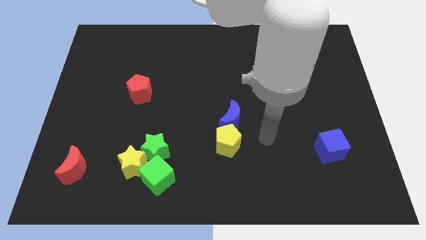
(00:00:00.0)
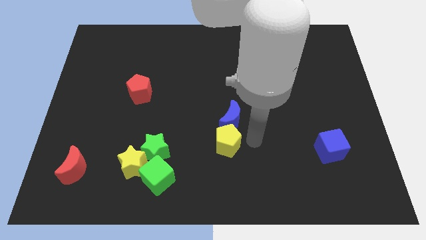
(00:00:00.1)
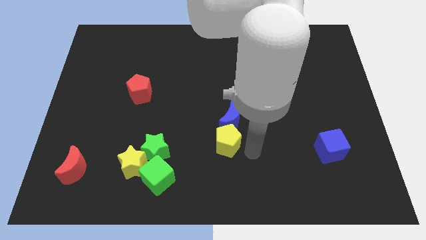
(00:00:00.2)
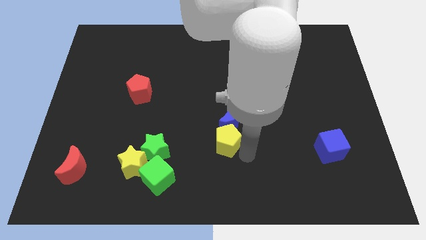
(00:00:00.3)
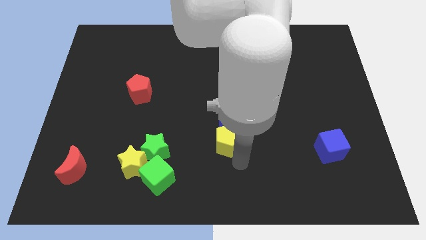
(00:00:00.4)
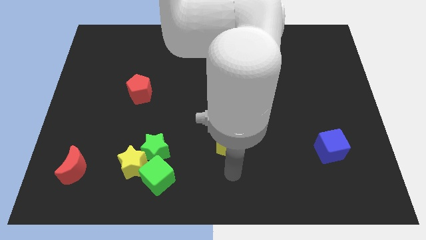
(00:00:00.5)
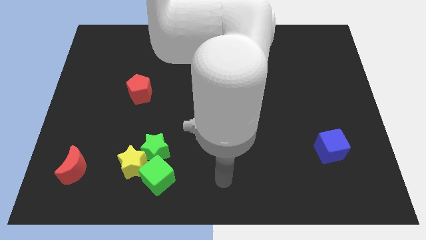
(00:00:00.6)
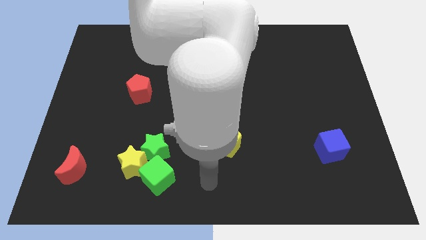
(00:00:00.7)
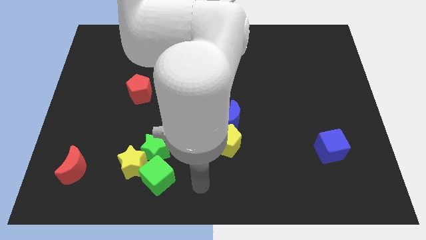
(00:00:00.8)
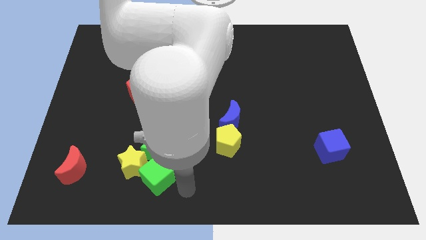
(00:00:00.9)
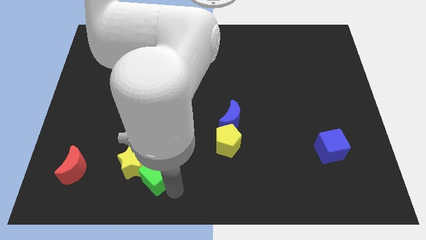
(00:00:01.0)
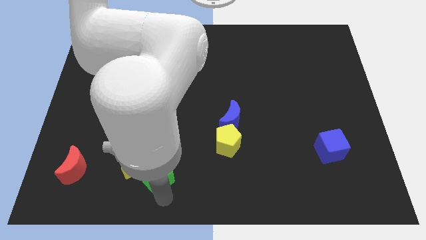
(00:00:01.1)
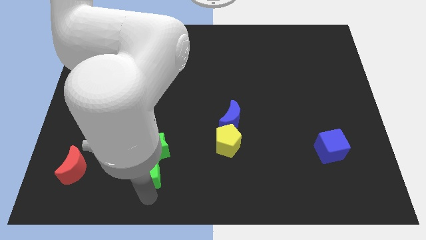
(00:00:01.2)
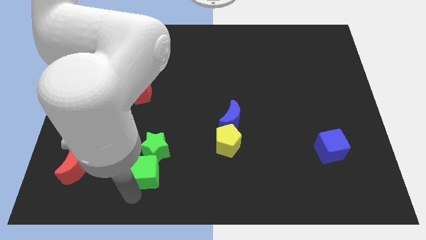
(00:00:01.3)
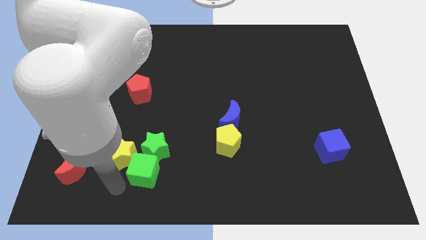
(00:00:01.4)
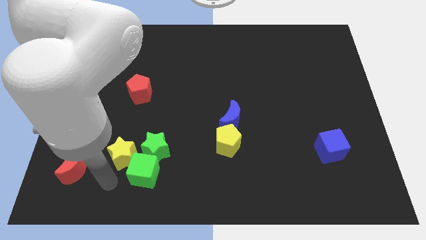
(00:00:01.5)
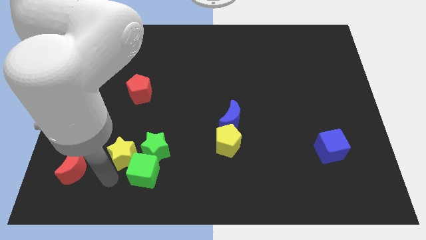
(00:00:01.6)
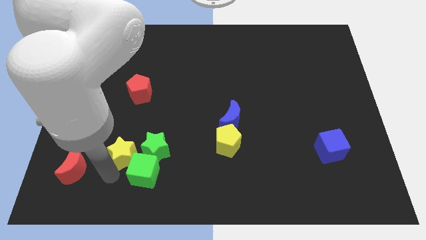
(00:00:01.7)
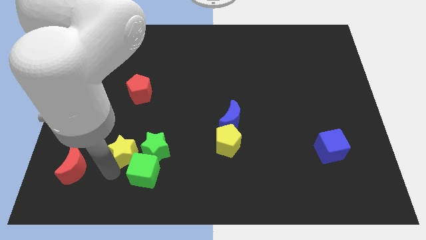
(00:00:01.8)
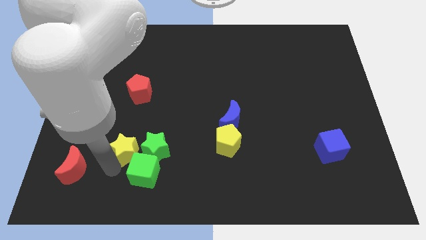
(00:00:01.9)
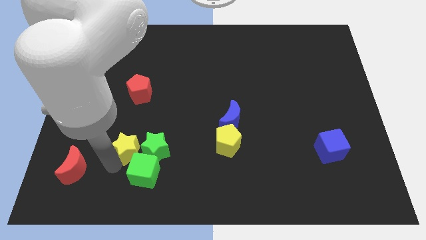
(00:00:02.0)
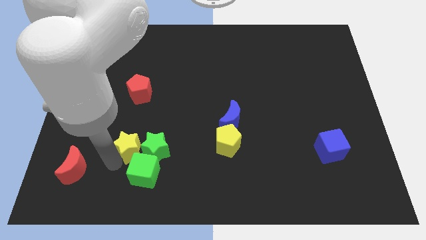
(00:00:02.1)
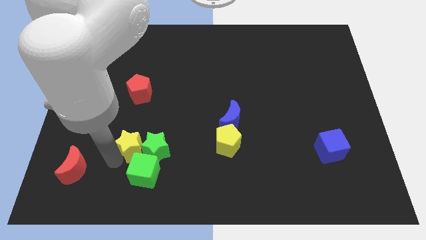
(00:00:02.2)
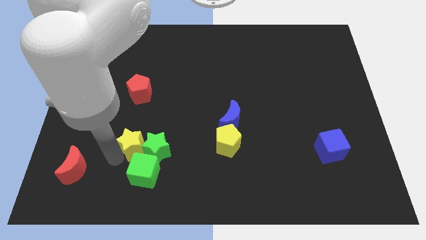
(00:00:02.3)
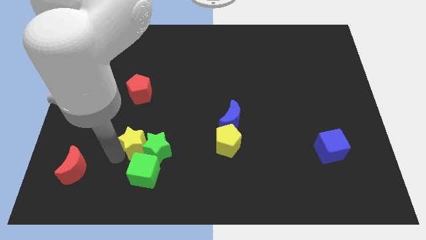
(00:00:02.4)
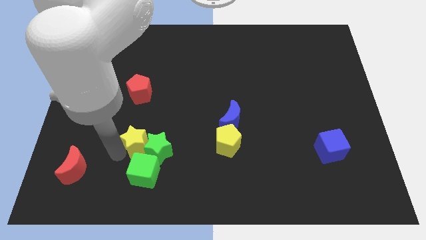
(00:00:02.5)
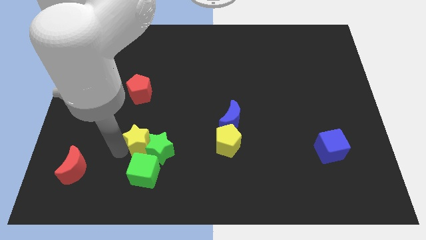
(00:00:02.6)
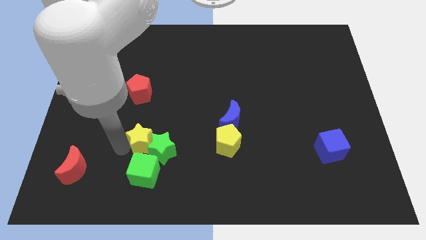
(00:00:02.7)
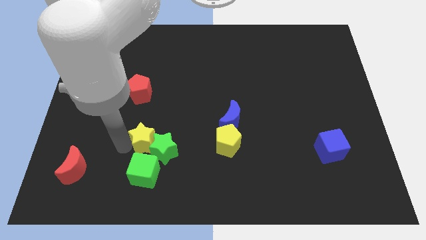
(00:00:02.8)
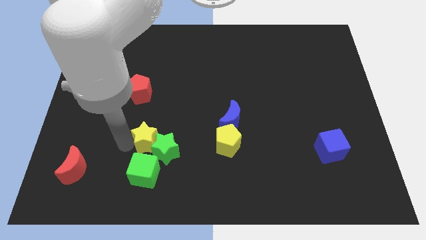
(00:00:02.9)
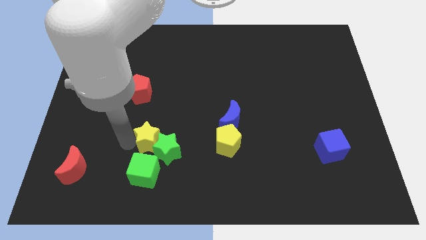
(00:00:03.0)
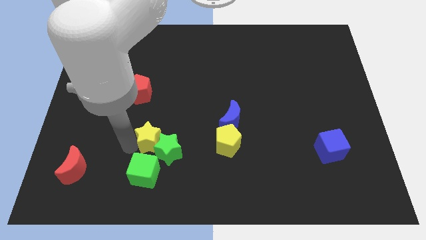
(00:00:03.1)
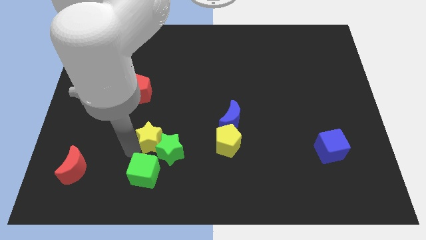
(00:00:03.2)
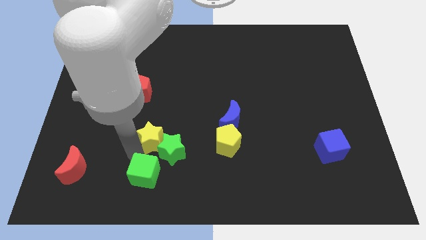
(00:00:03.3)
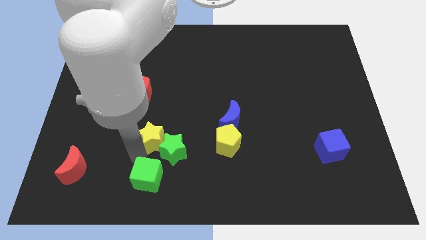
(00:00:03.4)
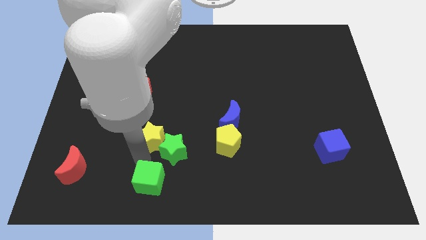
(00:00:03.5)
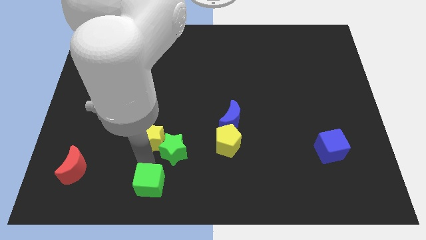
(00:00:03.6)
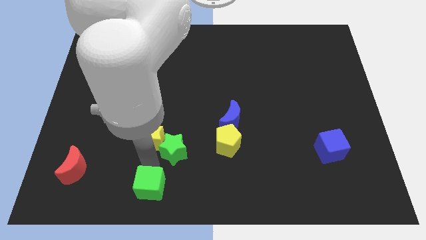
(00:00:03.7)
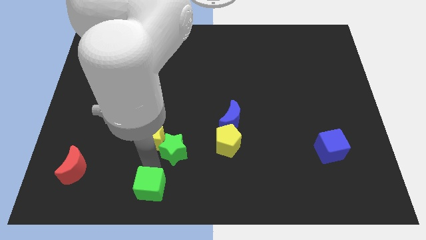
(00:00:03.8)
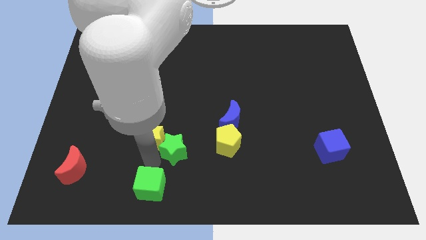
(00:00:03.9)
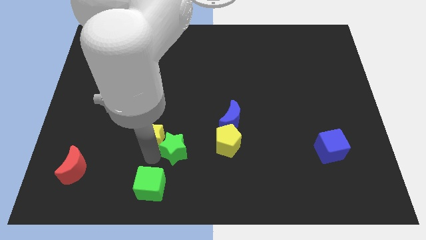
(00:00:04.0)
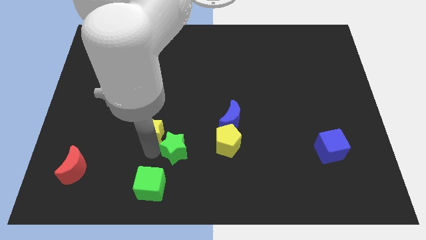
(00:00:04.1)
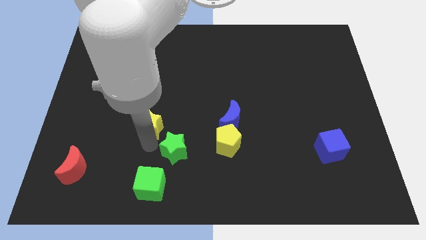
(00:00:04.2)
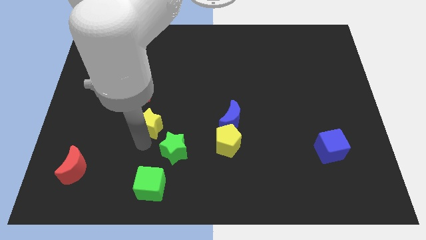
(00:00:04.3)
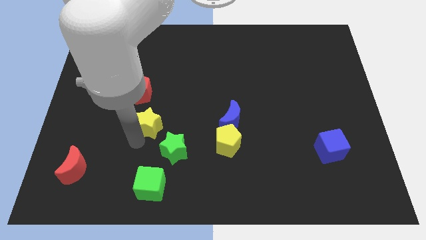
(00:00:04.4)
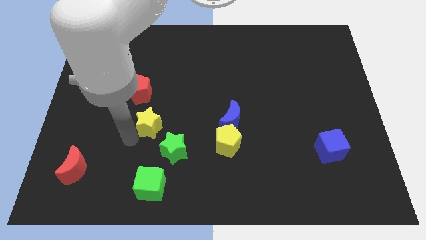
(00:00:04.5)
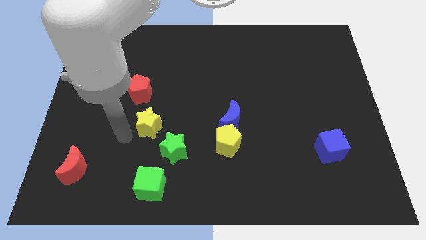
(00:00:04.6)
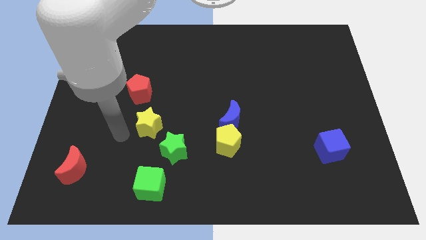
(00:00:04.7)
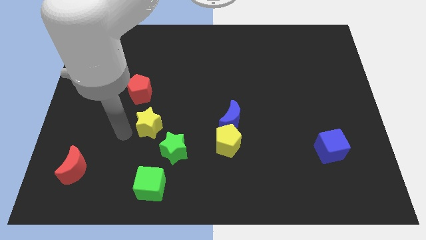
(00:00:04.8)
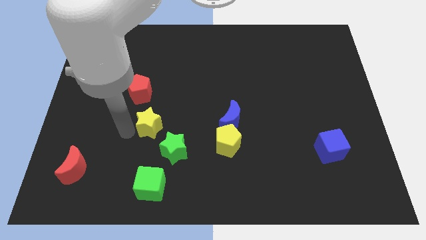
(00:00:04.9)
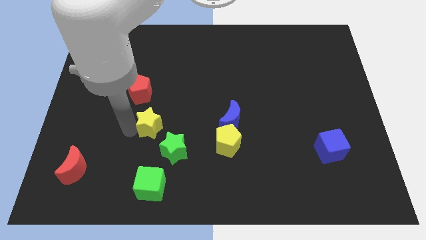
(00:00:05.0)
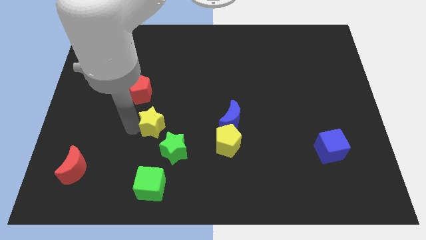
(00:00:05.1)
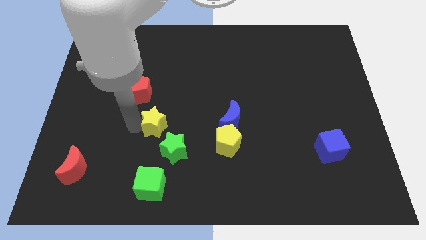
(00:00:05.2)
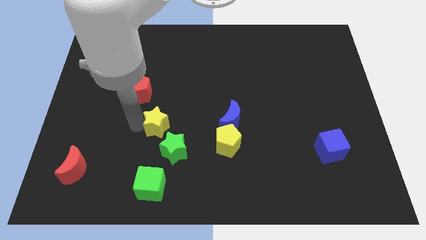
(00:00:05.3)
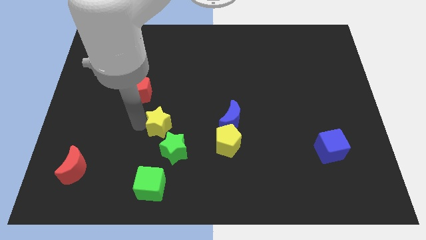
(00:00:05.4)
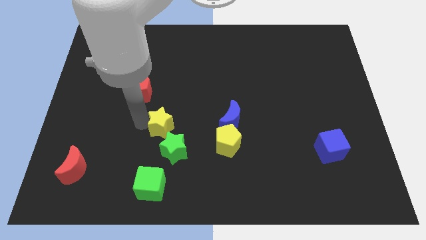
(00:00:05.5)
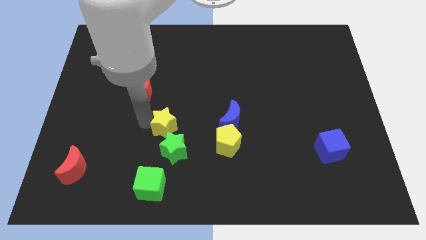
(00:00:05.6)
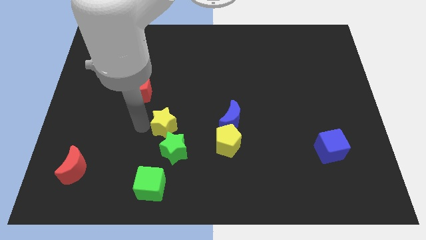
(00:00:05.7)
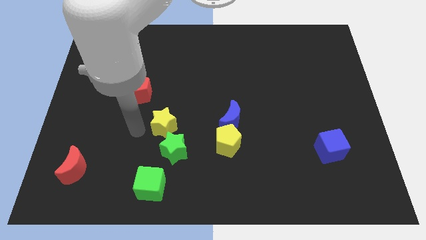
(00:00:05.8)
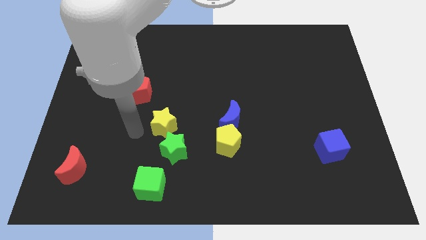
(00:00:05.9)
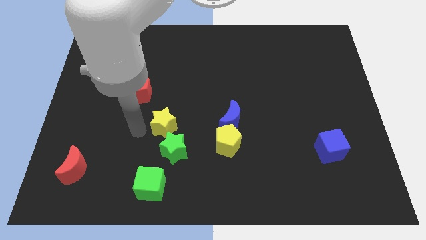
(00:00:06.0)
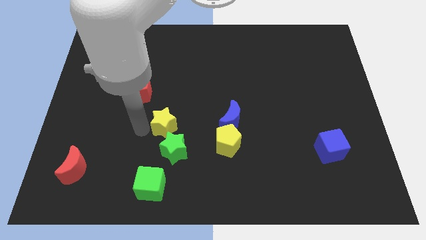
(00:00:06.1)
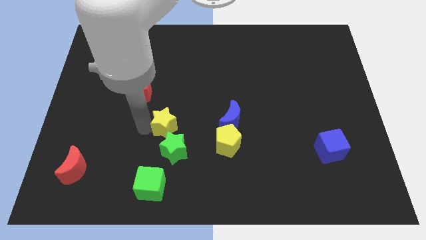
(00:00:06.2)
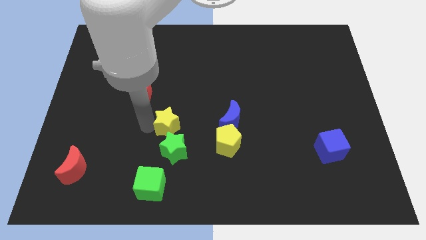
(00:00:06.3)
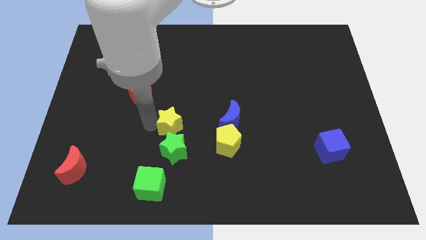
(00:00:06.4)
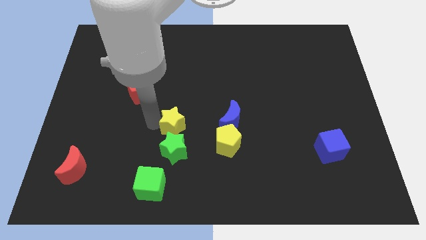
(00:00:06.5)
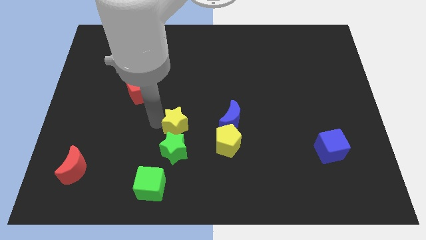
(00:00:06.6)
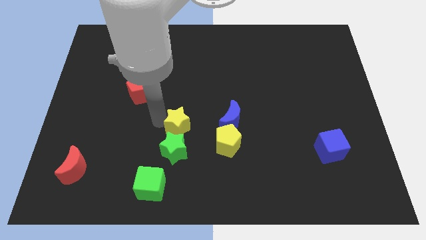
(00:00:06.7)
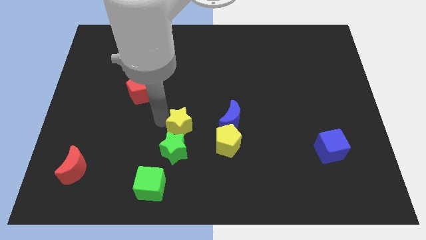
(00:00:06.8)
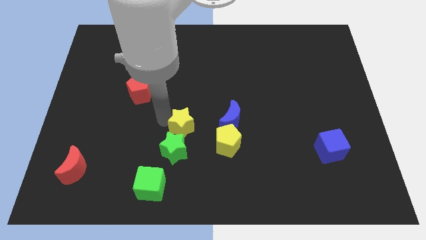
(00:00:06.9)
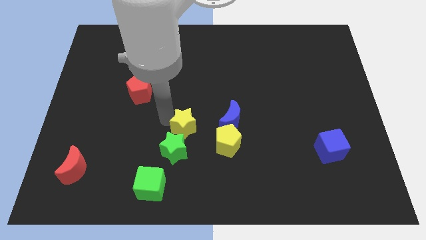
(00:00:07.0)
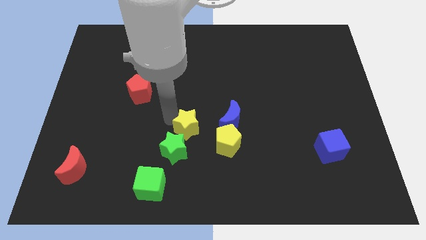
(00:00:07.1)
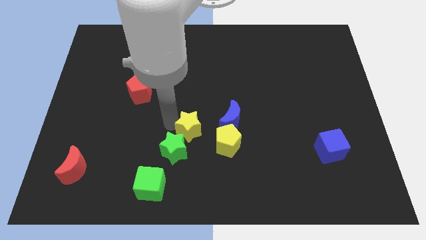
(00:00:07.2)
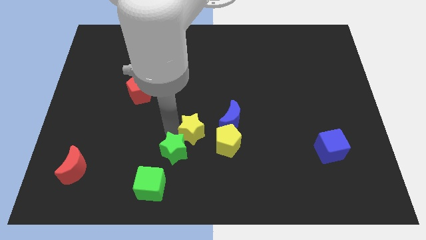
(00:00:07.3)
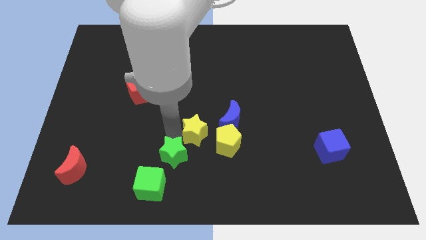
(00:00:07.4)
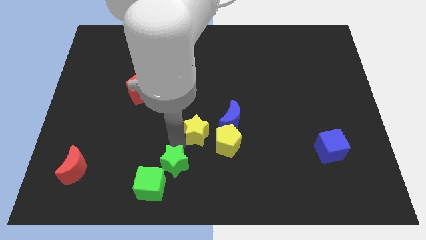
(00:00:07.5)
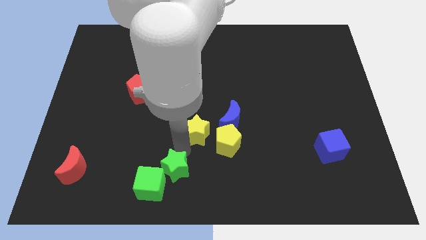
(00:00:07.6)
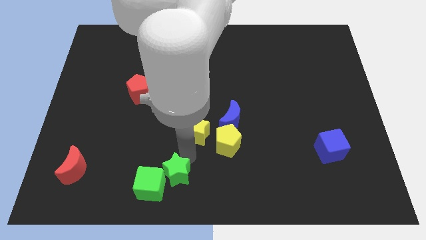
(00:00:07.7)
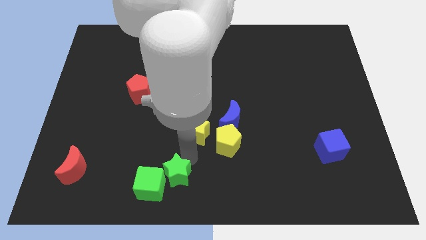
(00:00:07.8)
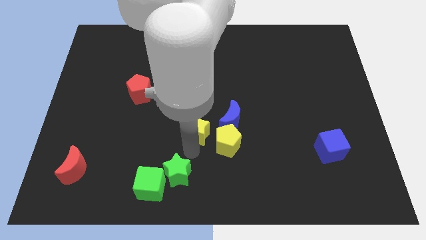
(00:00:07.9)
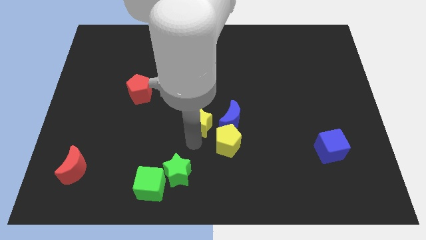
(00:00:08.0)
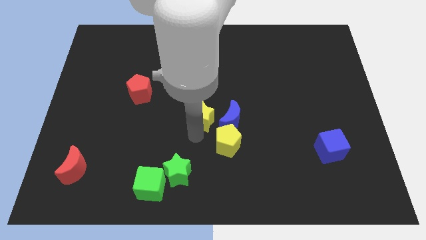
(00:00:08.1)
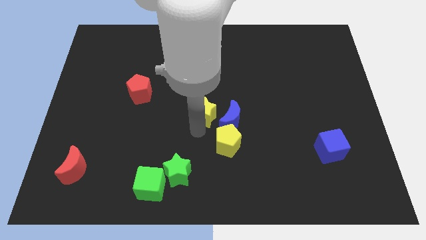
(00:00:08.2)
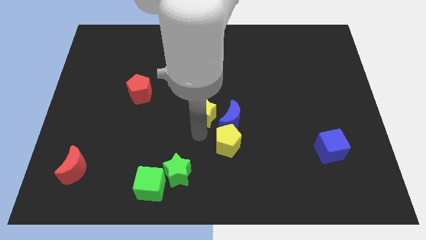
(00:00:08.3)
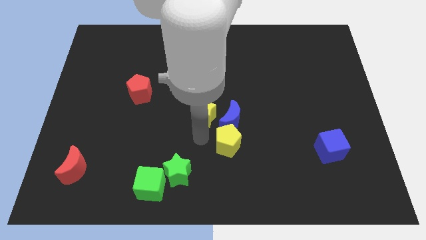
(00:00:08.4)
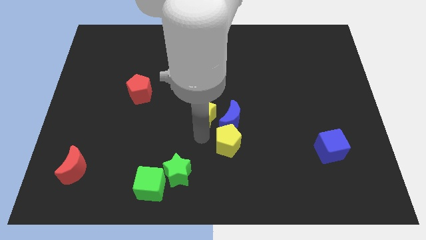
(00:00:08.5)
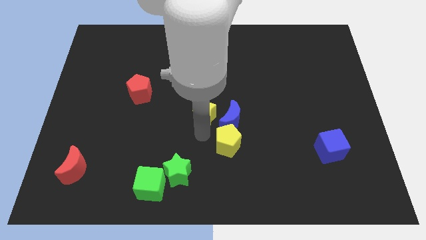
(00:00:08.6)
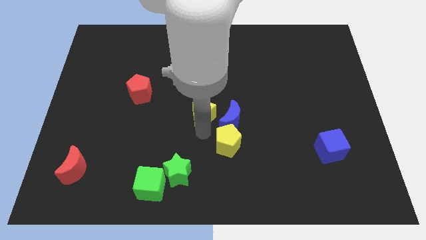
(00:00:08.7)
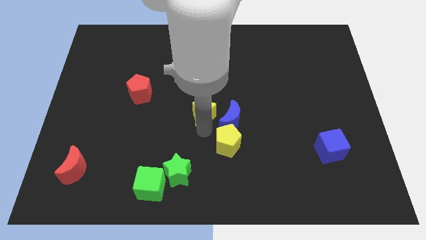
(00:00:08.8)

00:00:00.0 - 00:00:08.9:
move the yellow star upwards and then right
